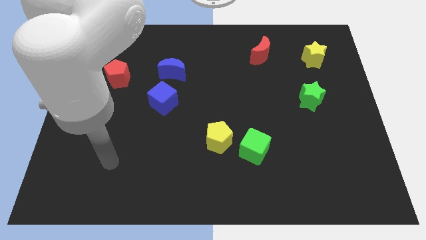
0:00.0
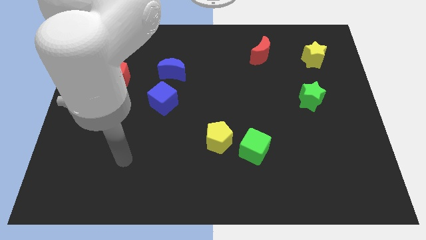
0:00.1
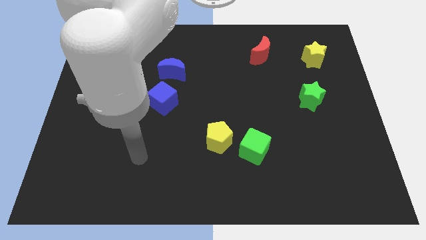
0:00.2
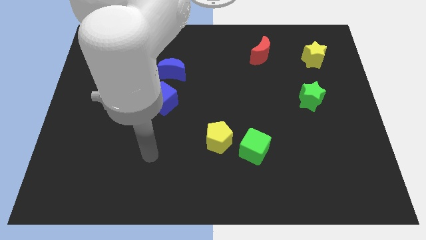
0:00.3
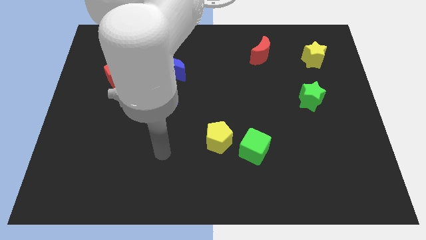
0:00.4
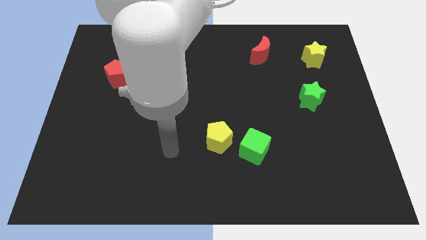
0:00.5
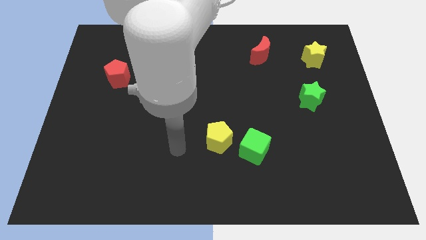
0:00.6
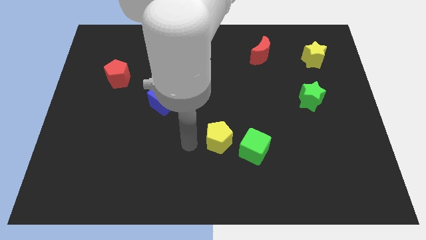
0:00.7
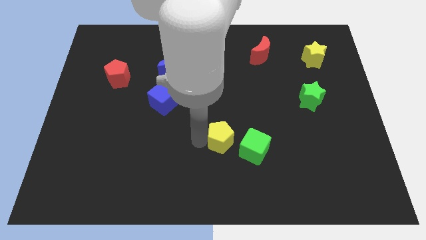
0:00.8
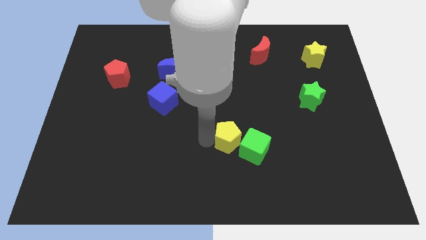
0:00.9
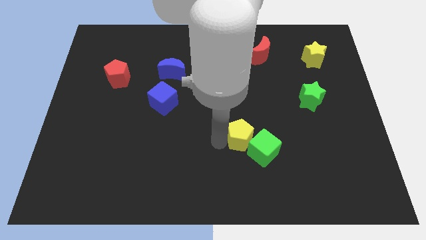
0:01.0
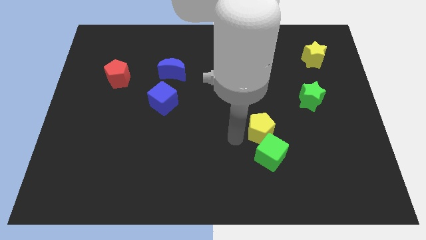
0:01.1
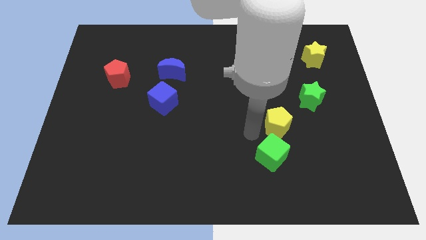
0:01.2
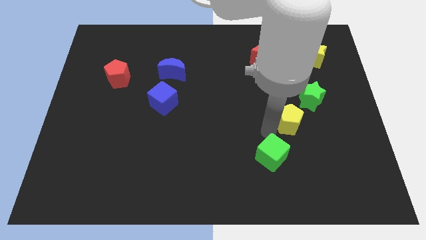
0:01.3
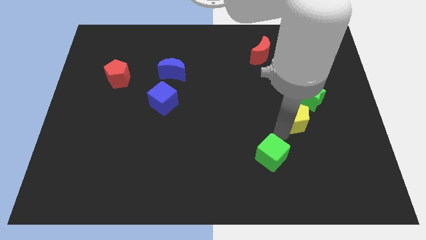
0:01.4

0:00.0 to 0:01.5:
move the green cube away from the yellow pentagon

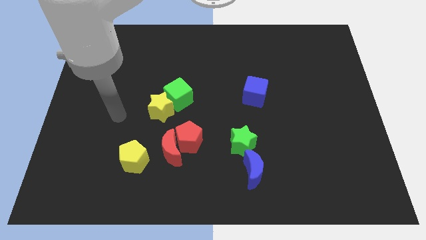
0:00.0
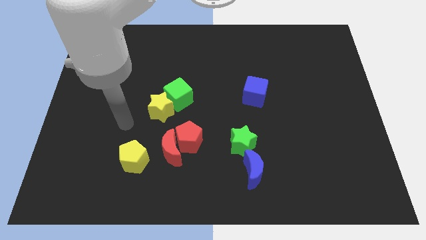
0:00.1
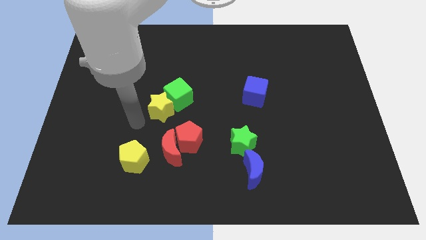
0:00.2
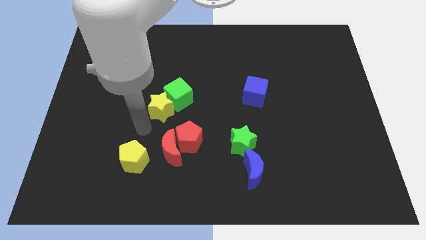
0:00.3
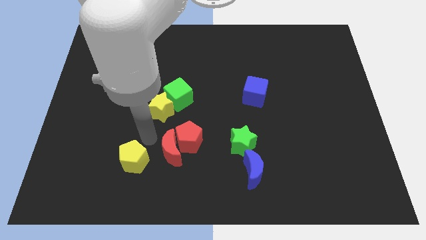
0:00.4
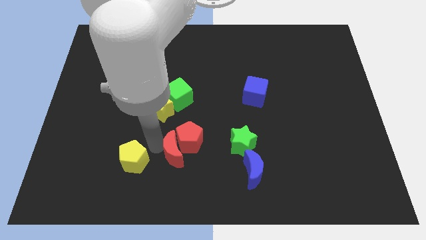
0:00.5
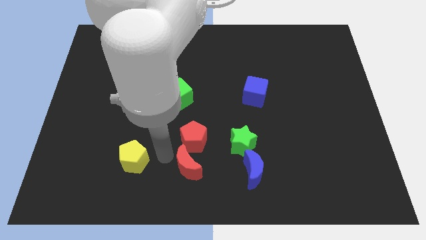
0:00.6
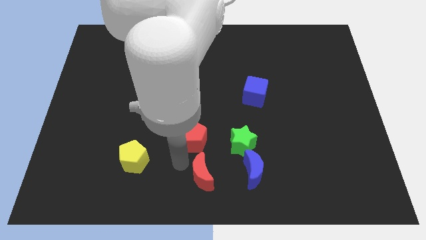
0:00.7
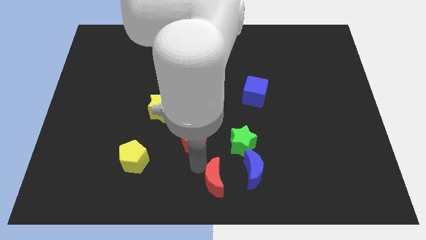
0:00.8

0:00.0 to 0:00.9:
move the red pentagon away from the red moon

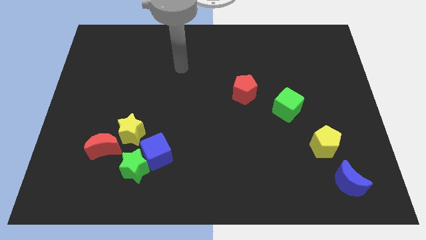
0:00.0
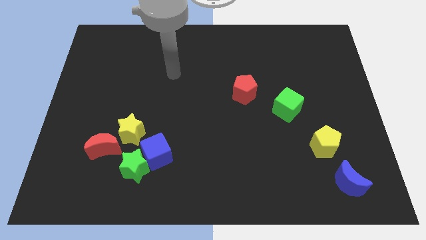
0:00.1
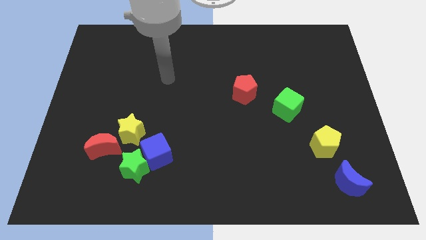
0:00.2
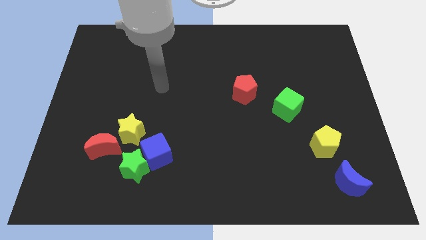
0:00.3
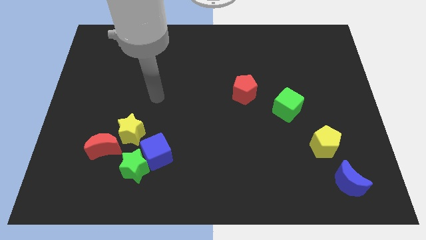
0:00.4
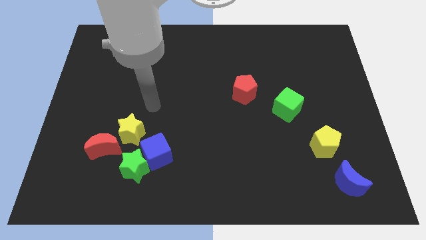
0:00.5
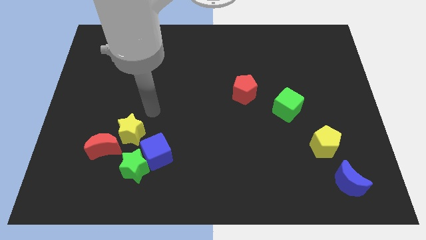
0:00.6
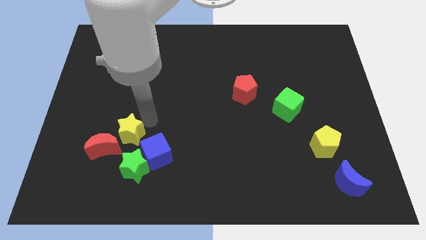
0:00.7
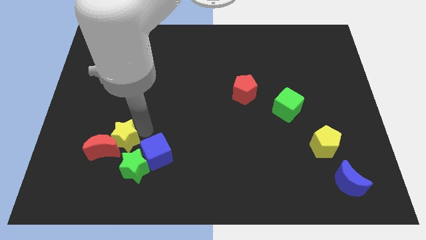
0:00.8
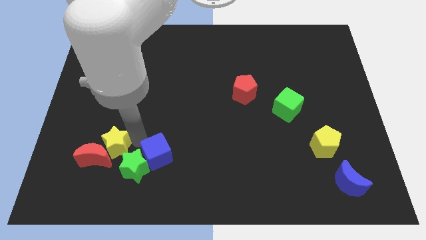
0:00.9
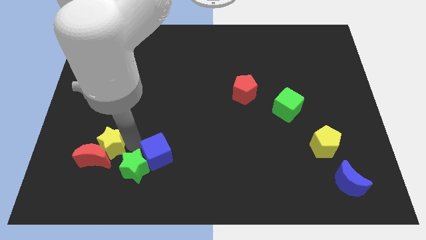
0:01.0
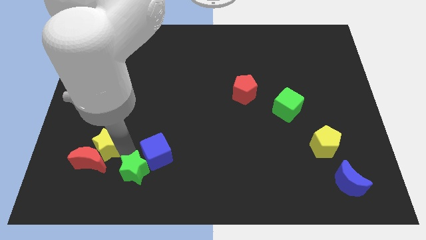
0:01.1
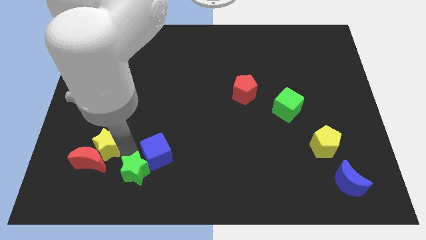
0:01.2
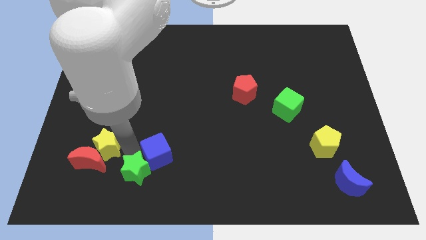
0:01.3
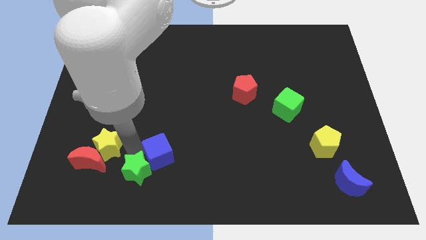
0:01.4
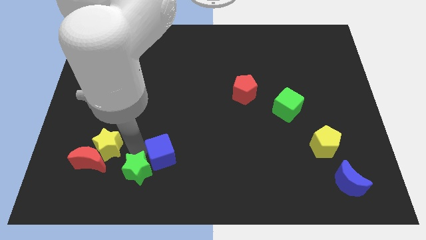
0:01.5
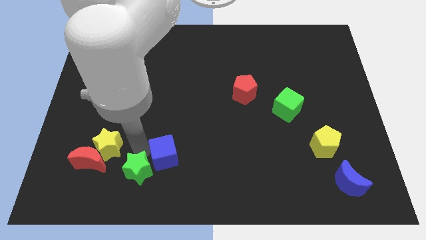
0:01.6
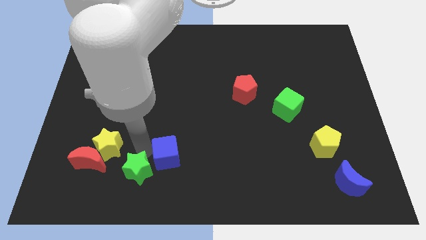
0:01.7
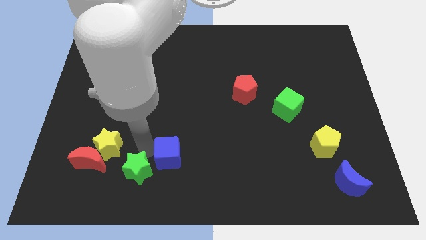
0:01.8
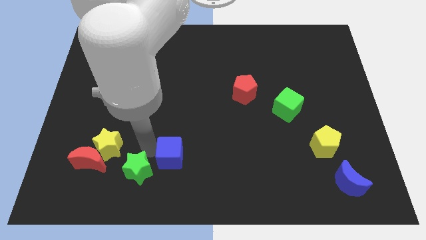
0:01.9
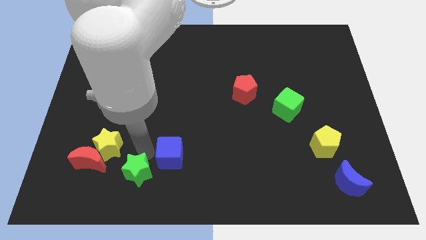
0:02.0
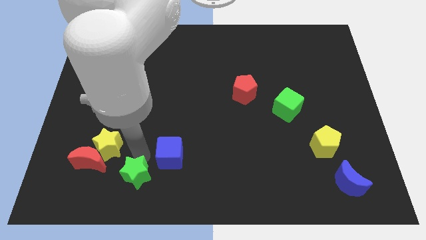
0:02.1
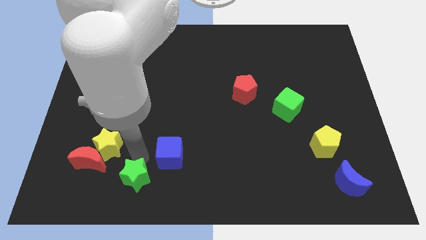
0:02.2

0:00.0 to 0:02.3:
move the blue cube away from the green star and yellow star

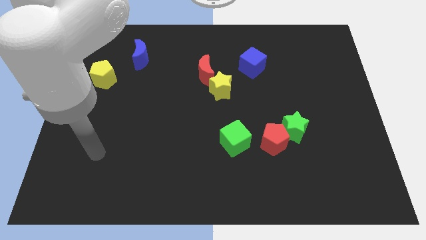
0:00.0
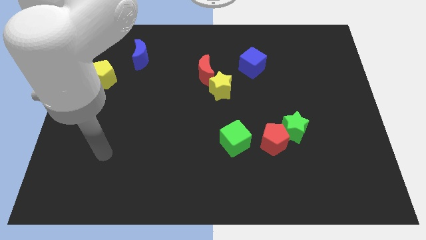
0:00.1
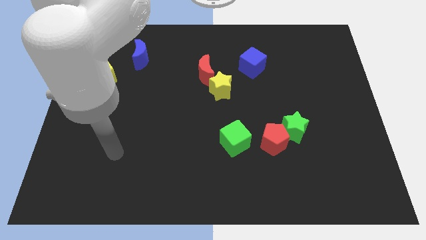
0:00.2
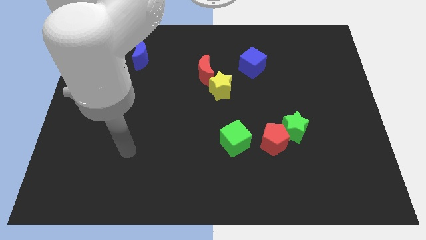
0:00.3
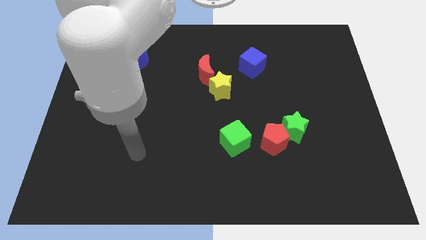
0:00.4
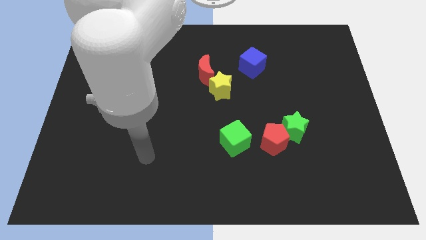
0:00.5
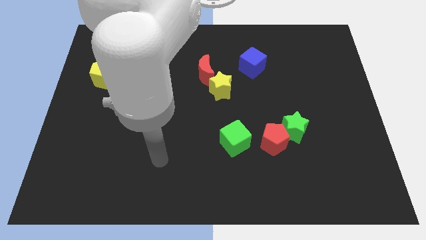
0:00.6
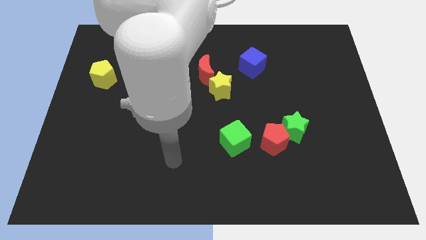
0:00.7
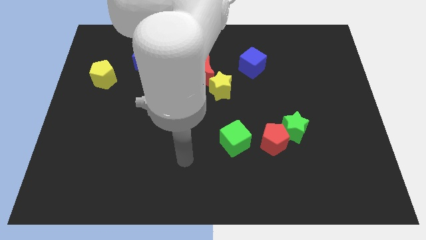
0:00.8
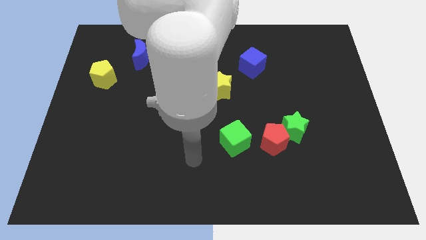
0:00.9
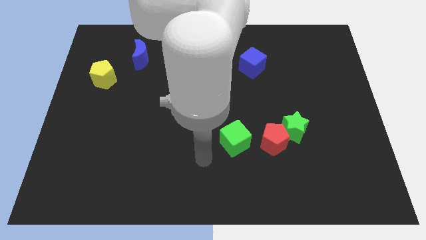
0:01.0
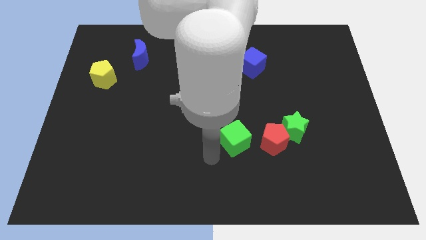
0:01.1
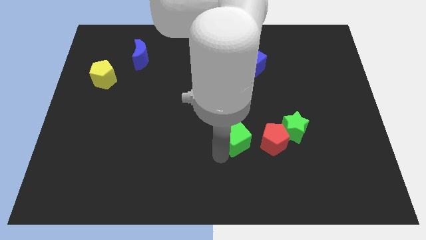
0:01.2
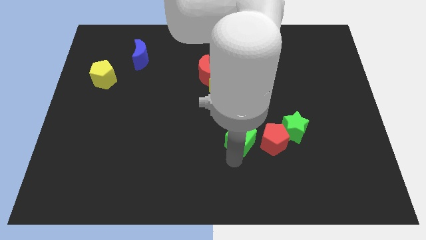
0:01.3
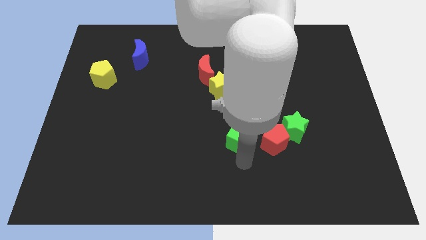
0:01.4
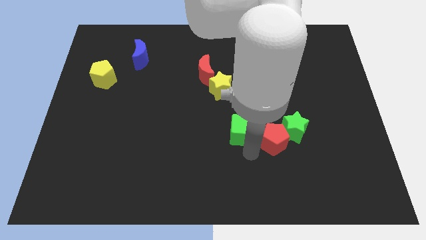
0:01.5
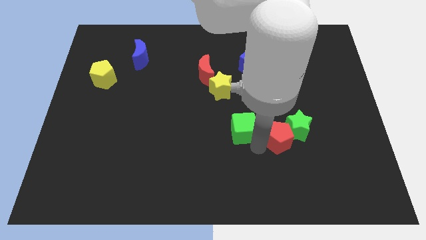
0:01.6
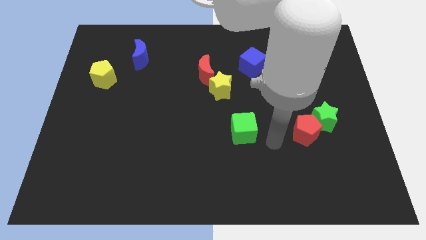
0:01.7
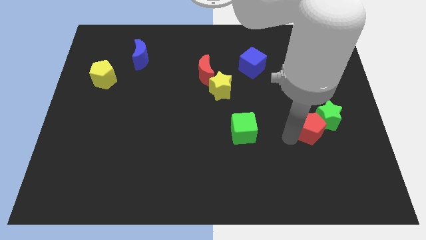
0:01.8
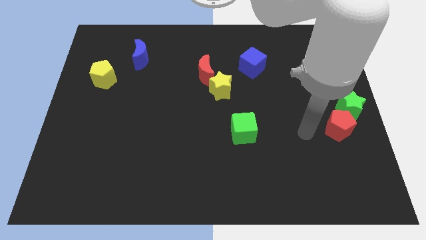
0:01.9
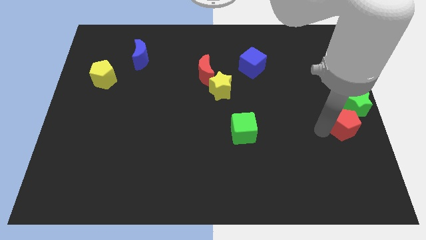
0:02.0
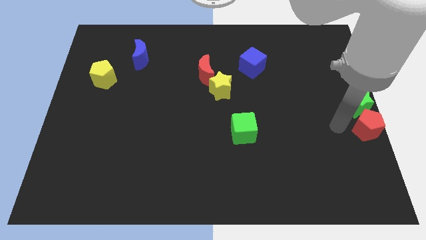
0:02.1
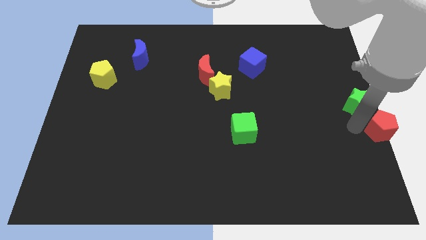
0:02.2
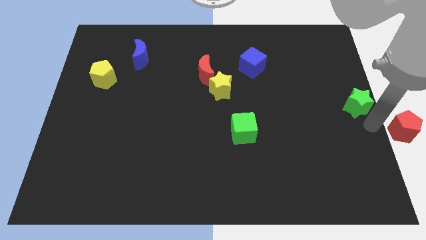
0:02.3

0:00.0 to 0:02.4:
pull the green star apart from the red pentagon

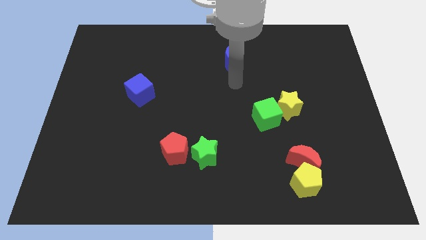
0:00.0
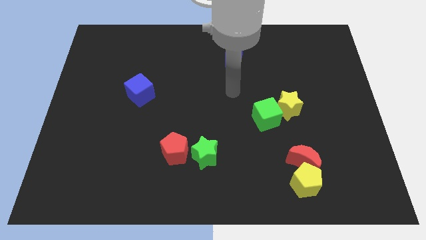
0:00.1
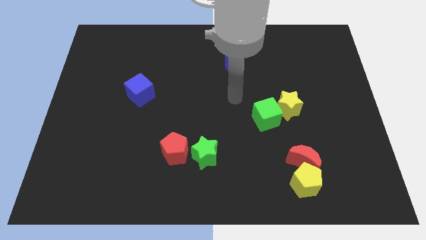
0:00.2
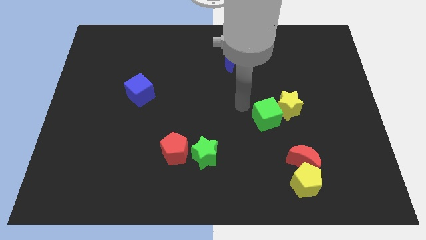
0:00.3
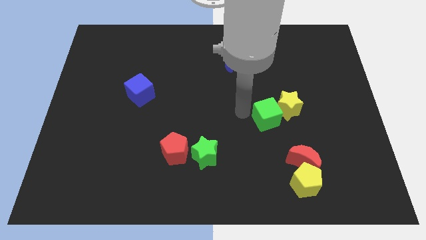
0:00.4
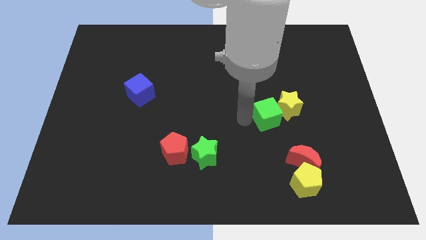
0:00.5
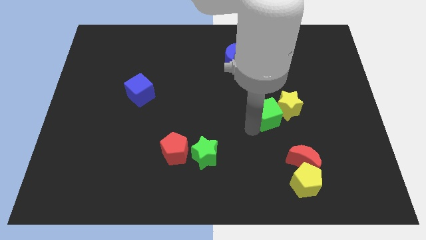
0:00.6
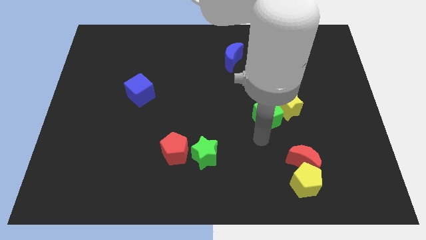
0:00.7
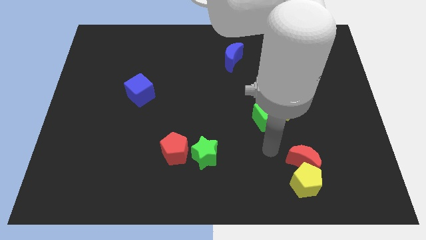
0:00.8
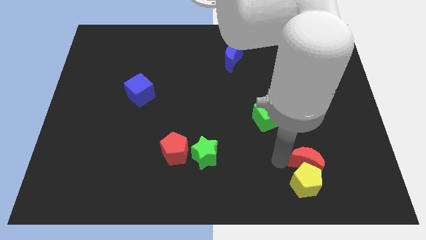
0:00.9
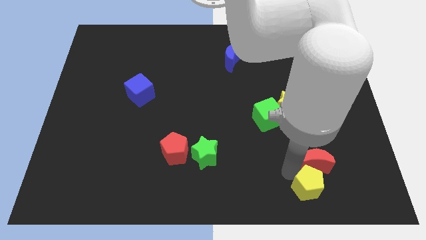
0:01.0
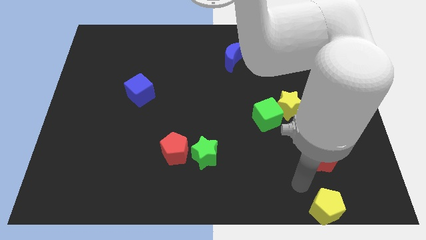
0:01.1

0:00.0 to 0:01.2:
separate the red moon from the yellow pentagon

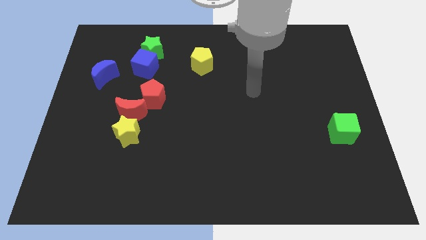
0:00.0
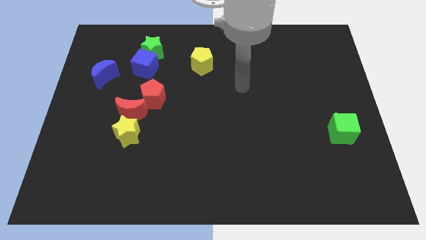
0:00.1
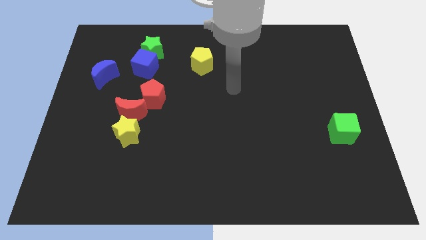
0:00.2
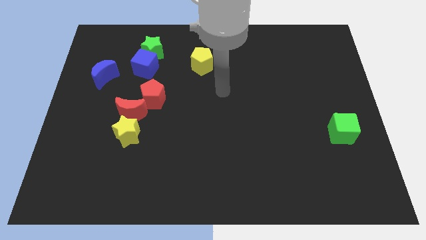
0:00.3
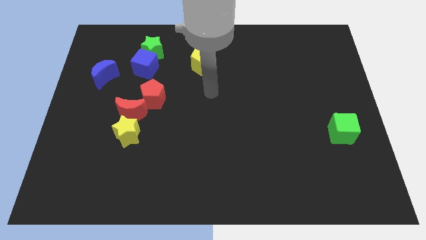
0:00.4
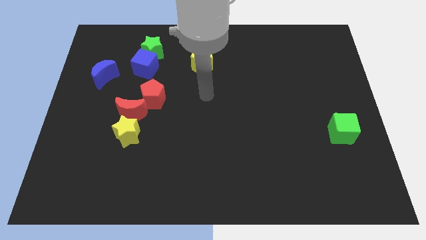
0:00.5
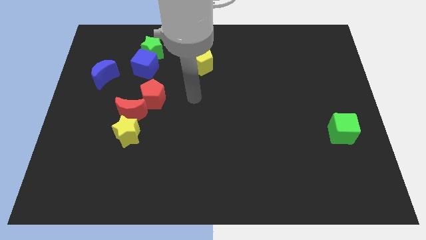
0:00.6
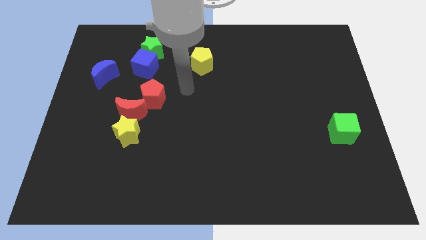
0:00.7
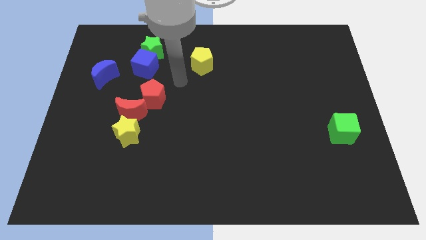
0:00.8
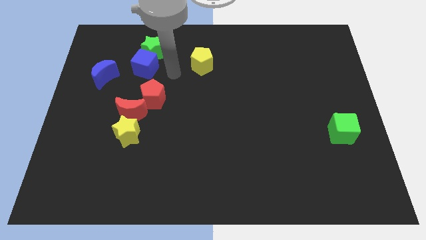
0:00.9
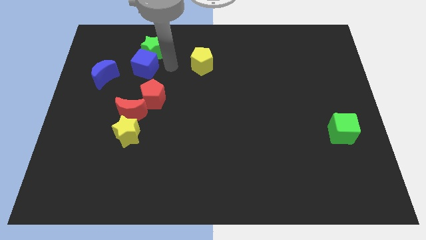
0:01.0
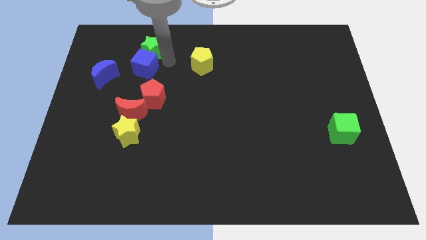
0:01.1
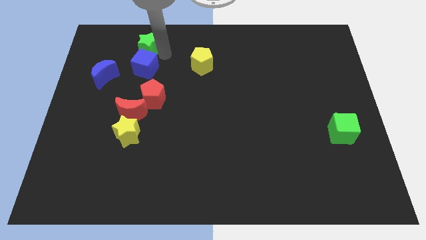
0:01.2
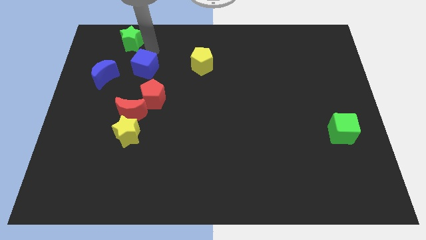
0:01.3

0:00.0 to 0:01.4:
separate the blue cube from the green star
